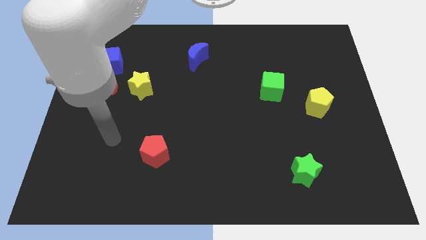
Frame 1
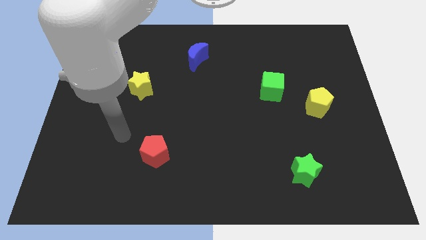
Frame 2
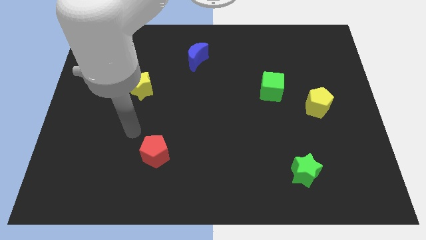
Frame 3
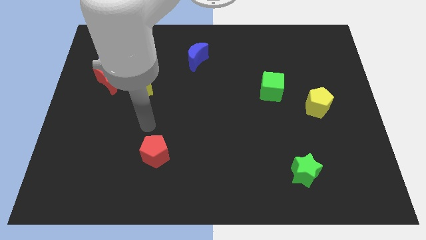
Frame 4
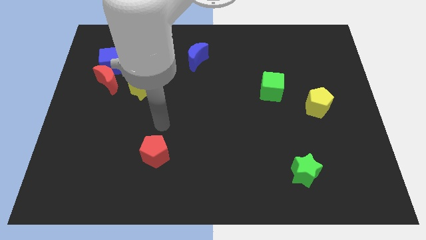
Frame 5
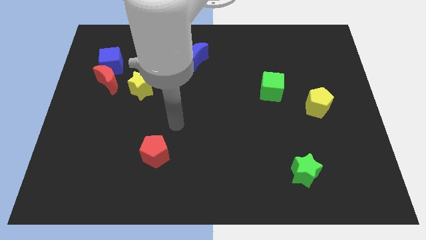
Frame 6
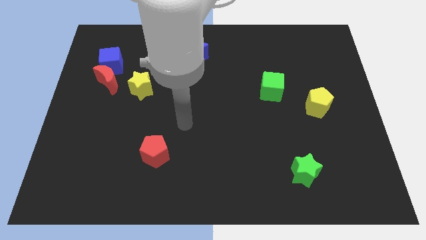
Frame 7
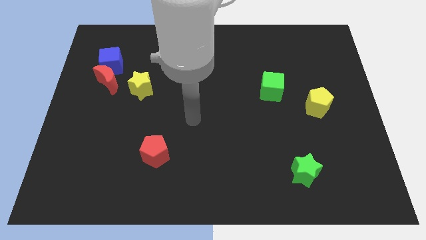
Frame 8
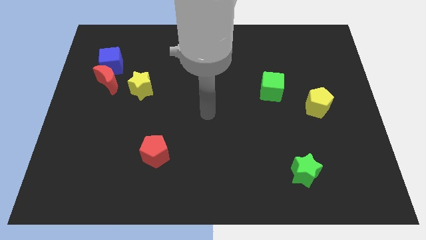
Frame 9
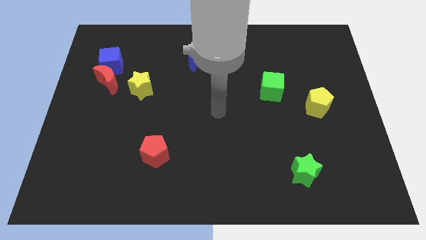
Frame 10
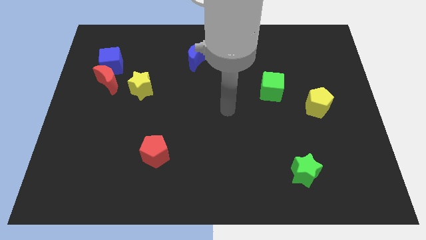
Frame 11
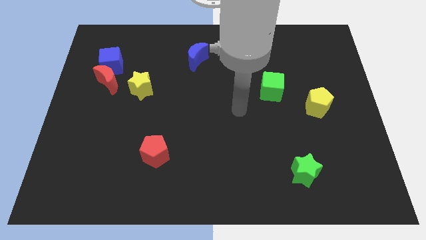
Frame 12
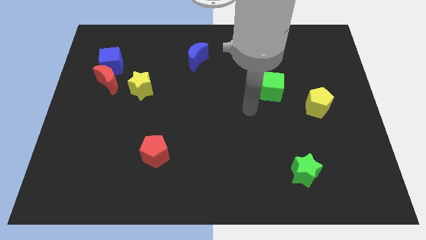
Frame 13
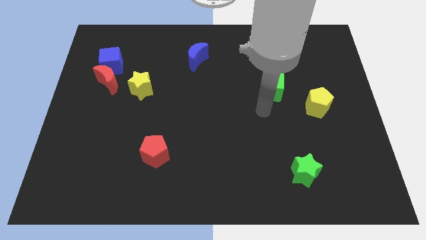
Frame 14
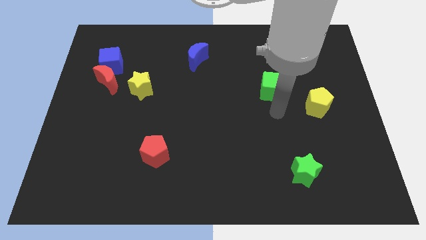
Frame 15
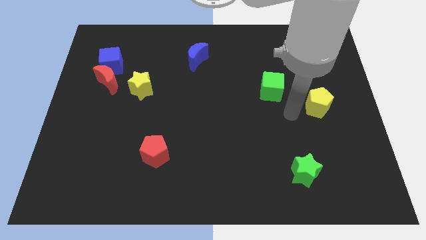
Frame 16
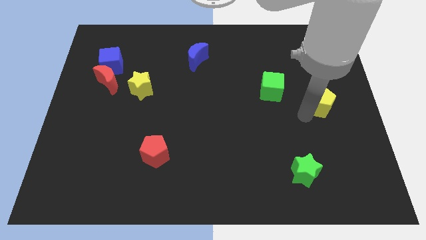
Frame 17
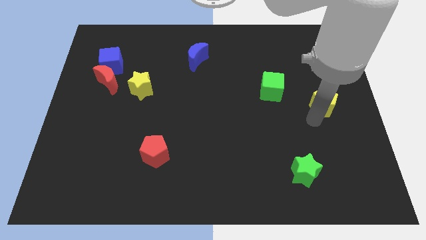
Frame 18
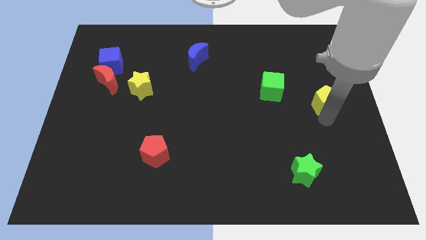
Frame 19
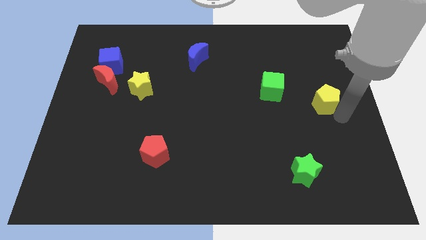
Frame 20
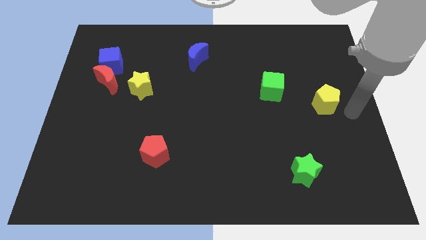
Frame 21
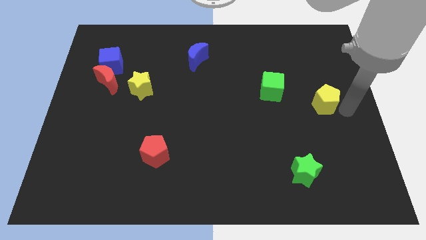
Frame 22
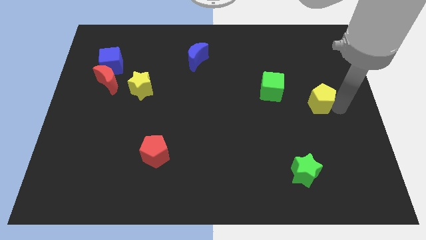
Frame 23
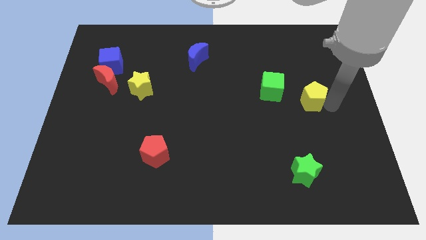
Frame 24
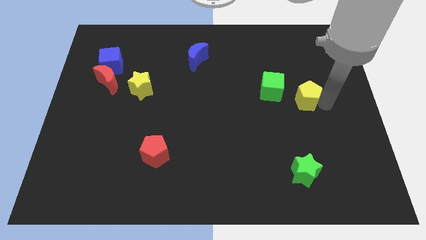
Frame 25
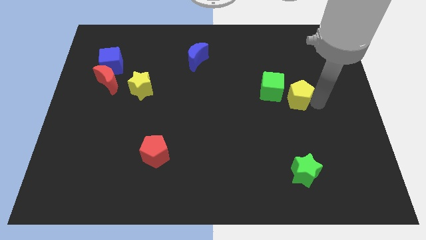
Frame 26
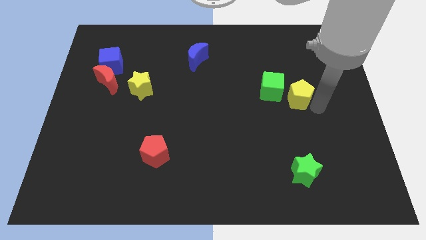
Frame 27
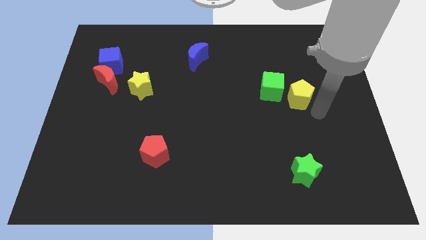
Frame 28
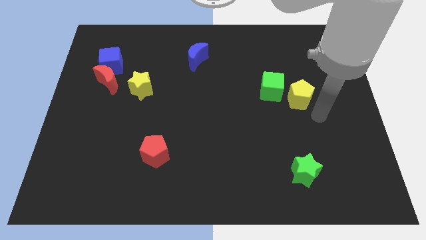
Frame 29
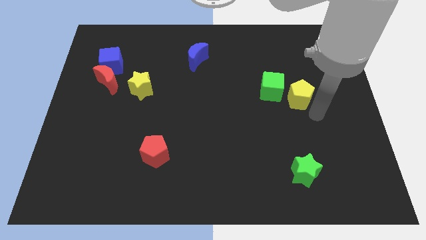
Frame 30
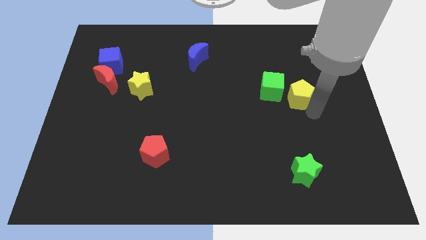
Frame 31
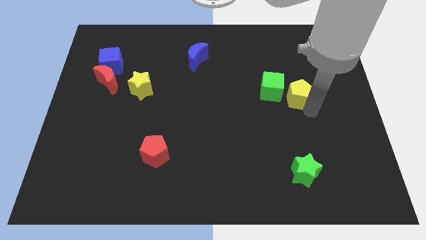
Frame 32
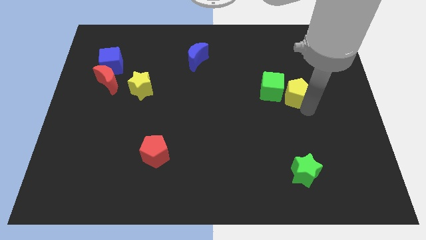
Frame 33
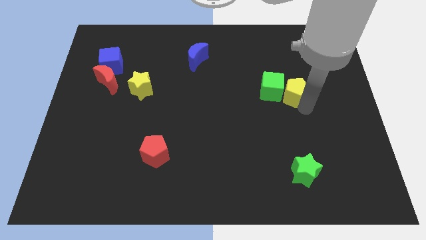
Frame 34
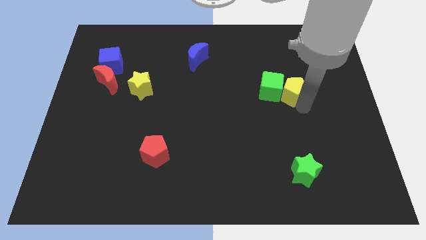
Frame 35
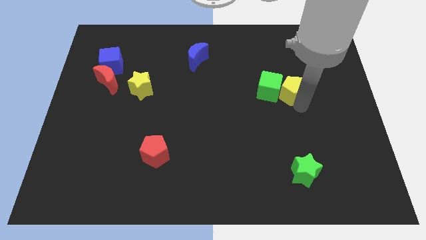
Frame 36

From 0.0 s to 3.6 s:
push the yellow pentagon a bit diagonally up and left

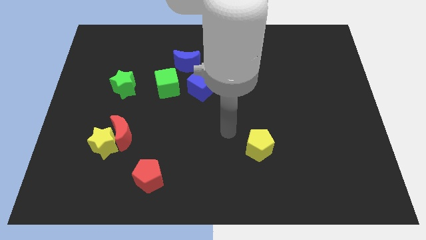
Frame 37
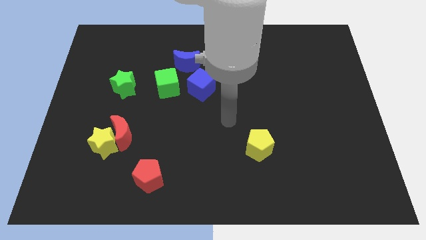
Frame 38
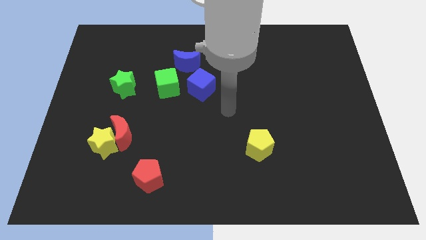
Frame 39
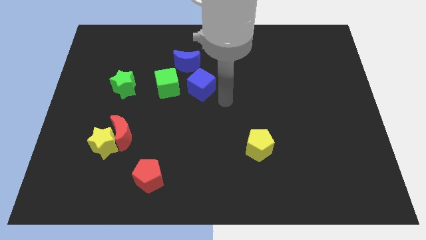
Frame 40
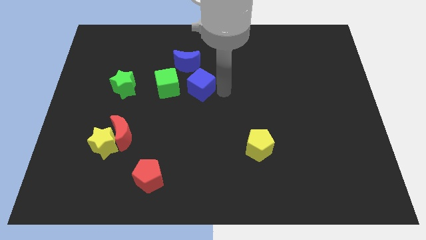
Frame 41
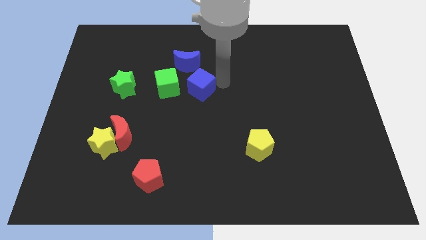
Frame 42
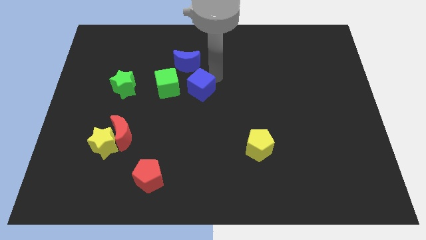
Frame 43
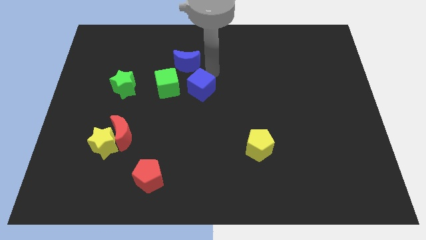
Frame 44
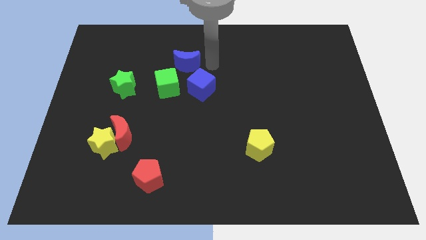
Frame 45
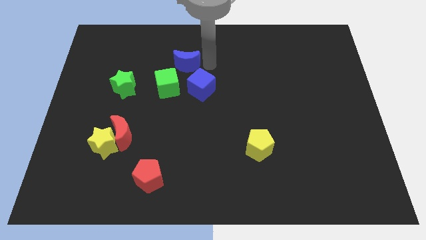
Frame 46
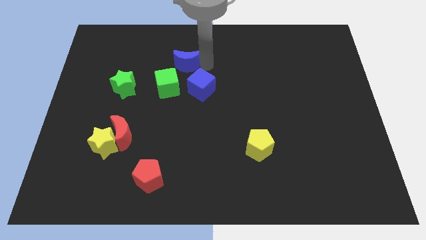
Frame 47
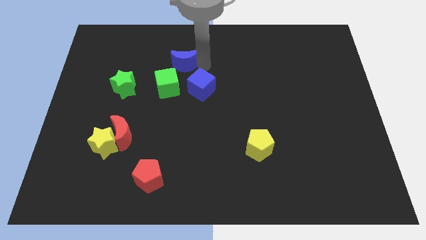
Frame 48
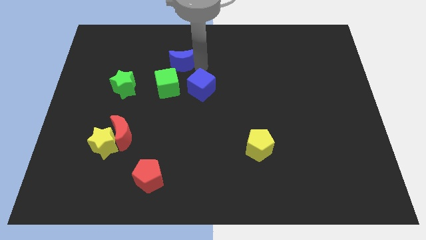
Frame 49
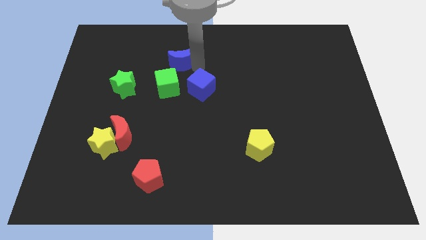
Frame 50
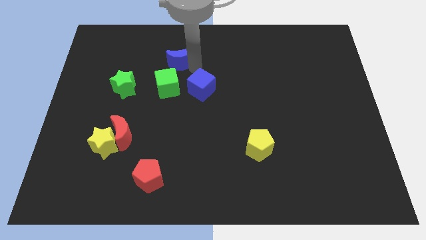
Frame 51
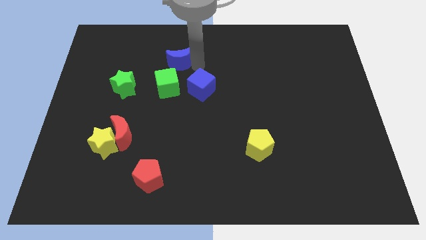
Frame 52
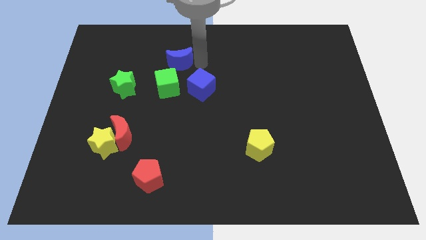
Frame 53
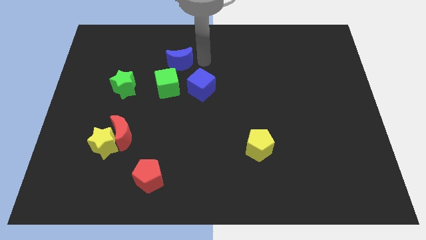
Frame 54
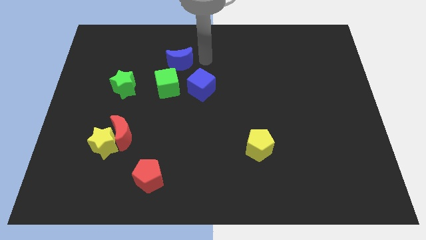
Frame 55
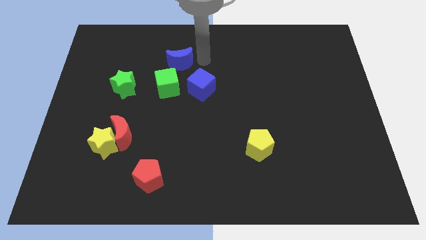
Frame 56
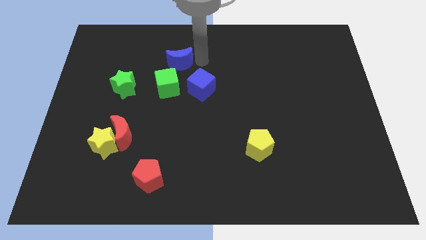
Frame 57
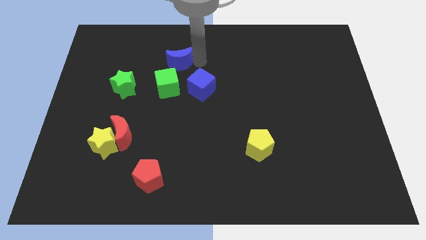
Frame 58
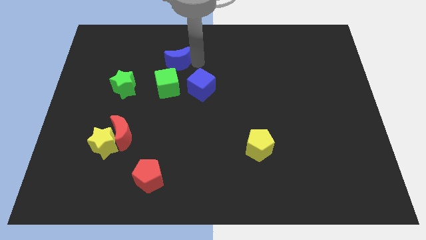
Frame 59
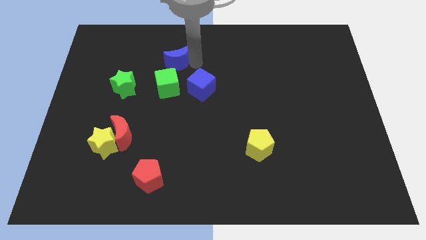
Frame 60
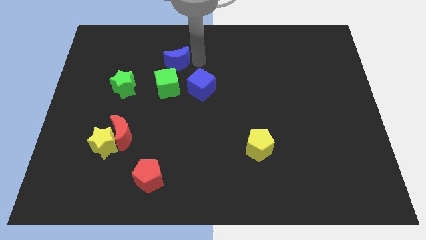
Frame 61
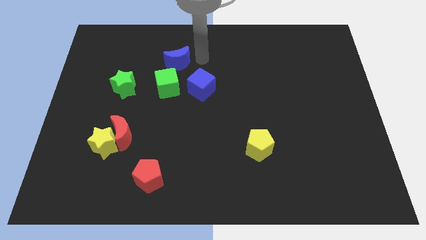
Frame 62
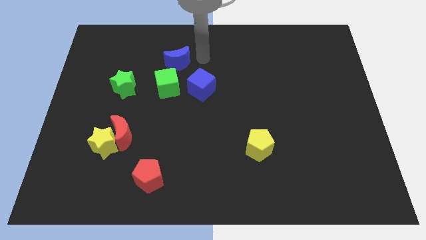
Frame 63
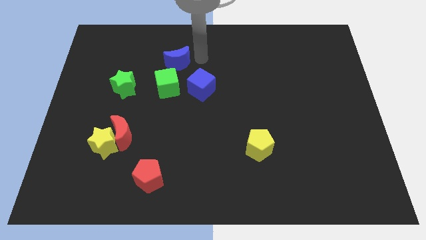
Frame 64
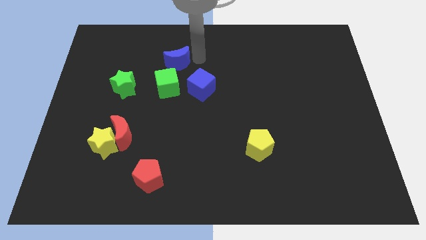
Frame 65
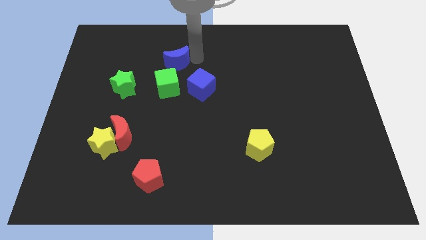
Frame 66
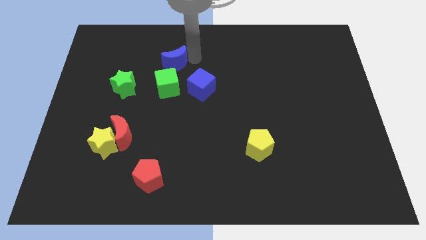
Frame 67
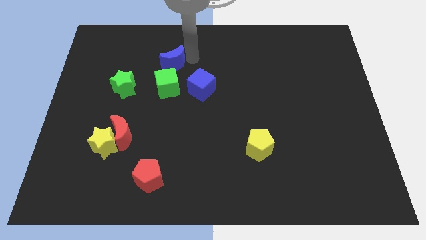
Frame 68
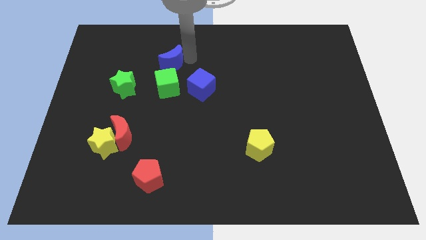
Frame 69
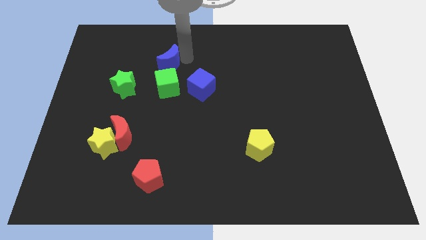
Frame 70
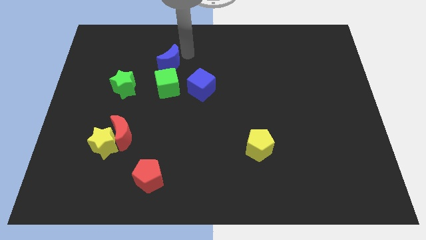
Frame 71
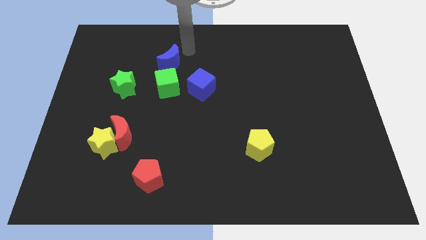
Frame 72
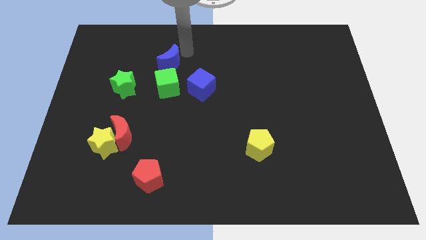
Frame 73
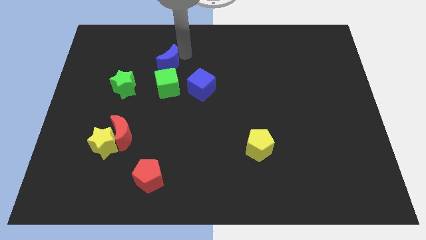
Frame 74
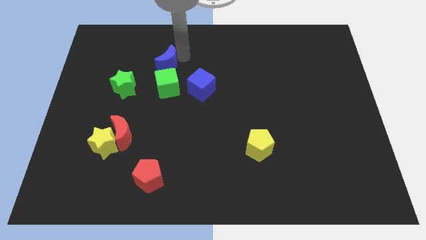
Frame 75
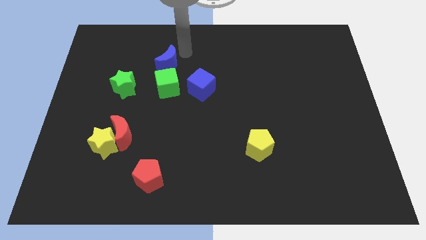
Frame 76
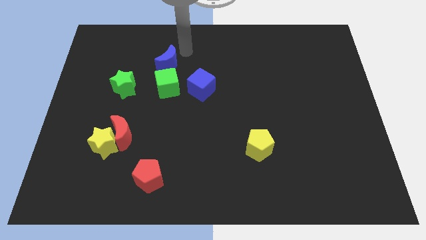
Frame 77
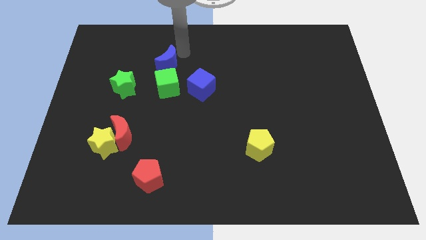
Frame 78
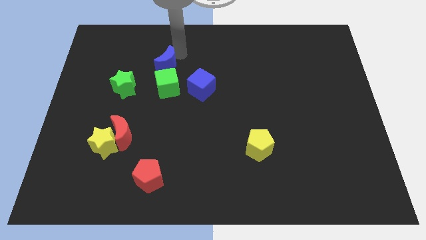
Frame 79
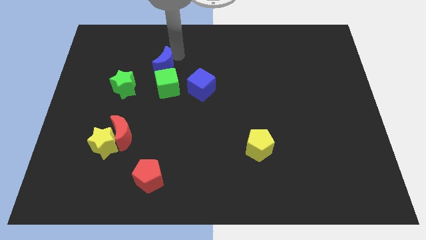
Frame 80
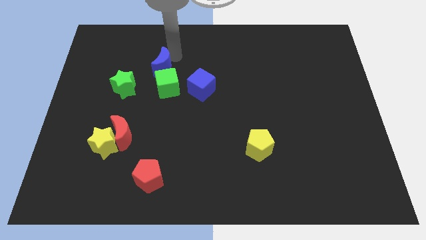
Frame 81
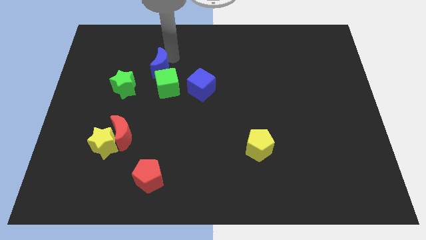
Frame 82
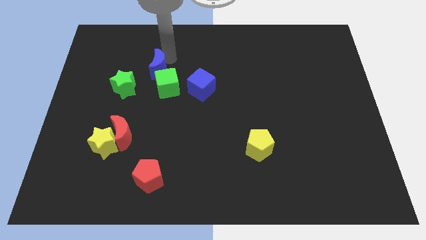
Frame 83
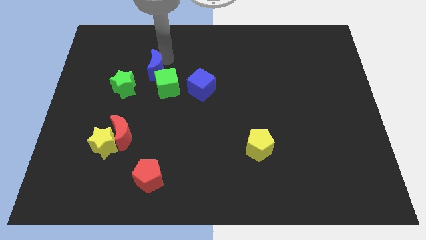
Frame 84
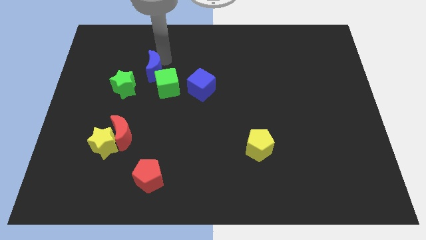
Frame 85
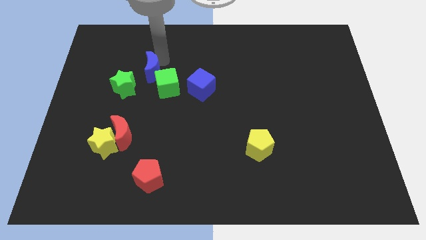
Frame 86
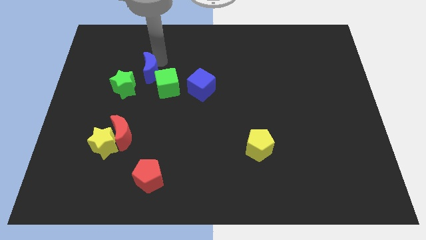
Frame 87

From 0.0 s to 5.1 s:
push the blue moon slightly downwards and to the left diagonally
